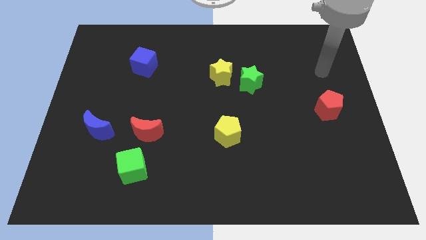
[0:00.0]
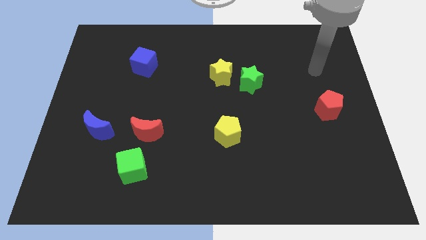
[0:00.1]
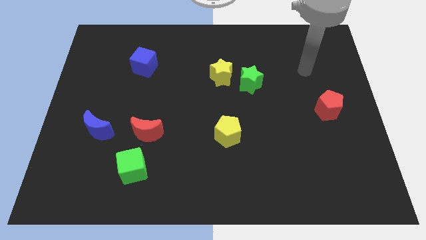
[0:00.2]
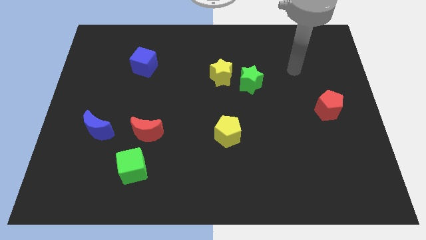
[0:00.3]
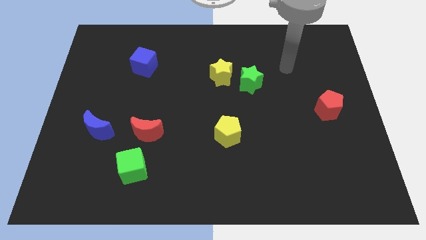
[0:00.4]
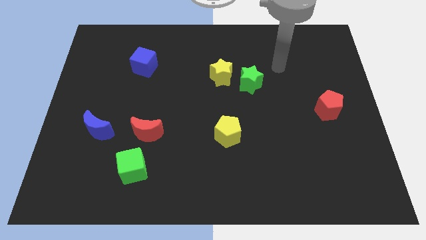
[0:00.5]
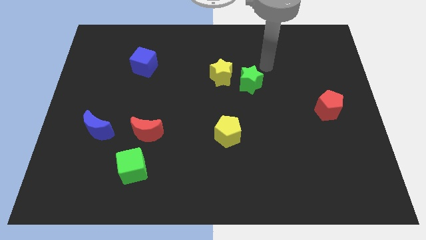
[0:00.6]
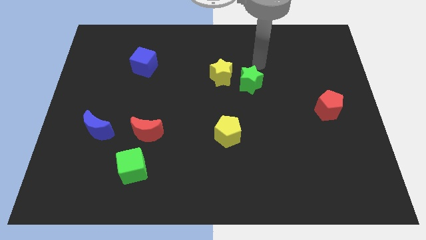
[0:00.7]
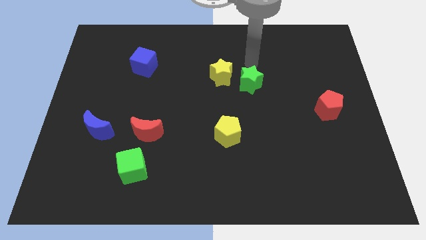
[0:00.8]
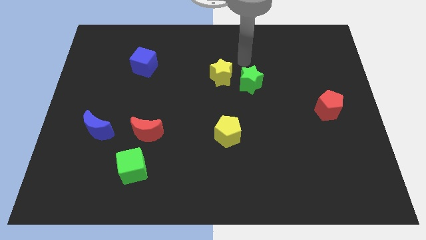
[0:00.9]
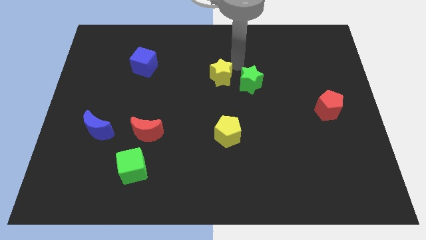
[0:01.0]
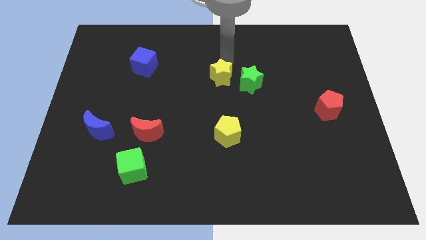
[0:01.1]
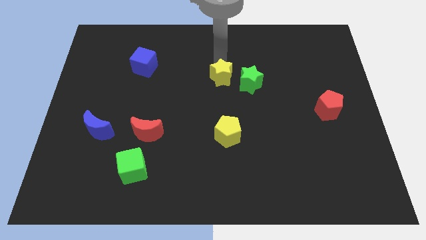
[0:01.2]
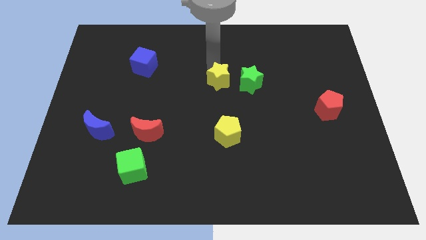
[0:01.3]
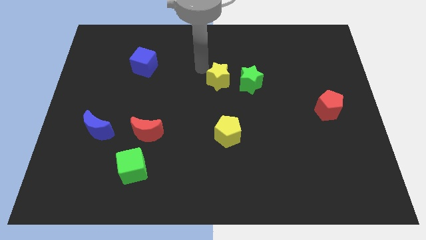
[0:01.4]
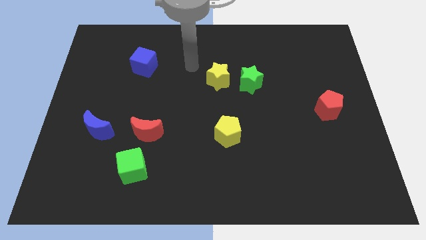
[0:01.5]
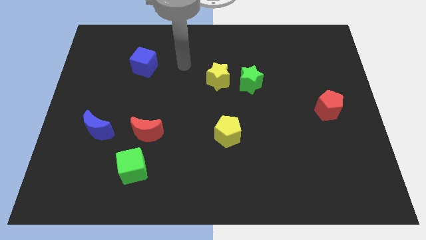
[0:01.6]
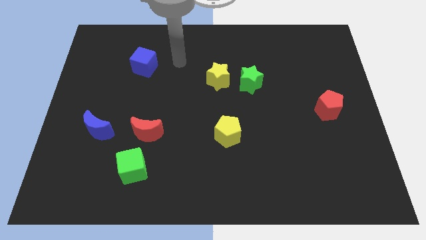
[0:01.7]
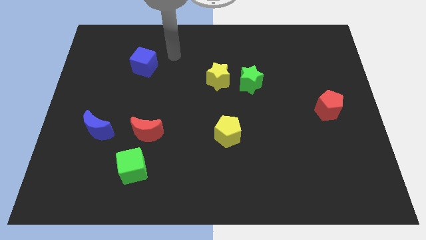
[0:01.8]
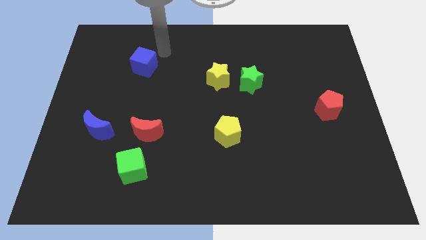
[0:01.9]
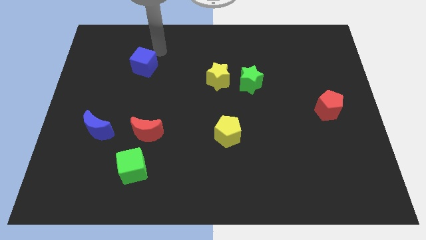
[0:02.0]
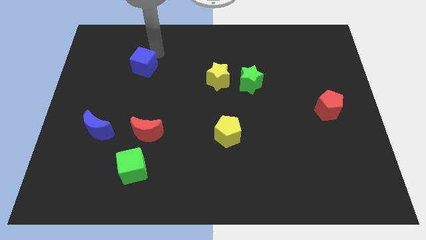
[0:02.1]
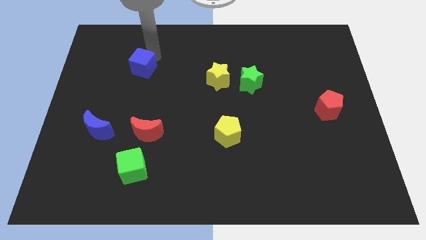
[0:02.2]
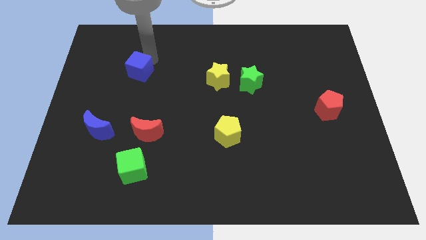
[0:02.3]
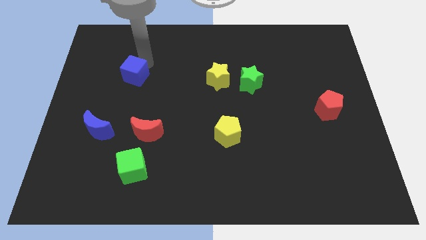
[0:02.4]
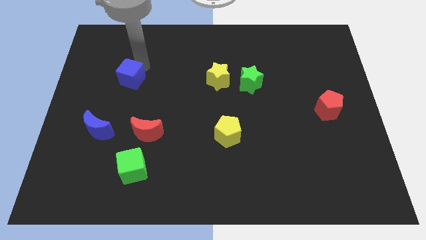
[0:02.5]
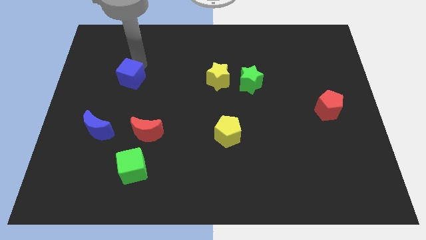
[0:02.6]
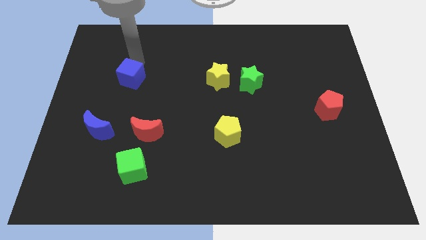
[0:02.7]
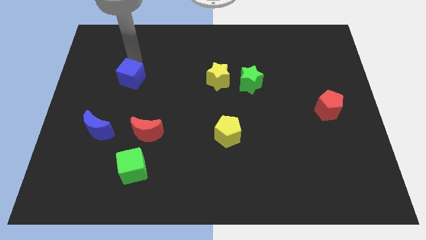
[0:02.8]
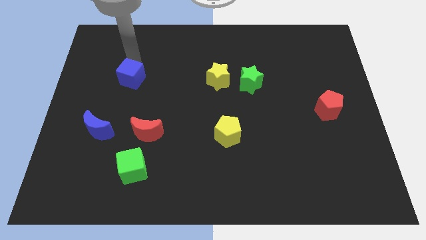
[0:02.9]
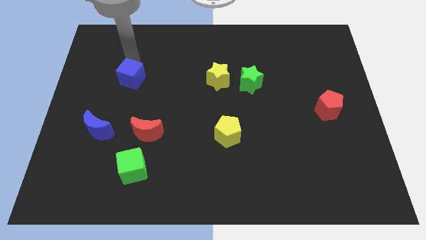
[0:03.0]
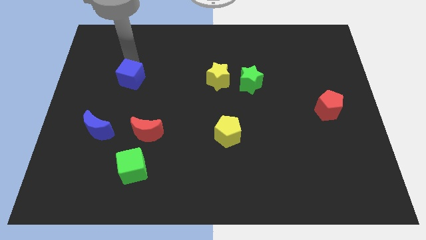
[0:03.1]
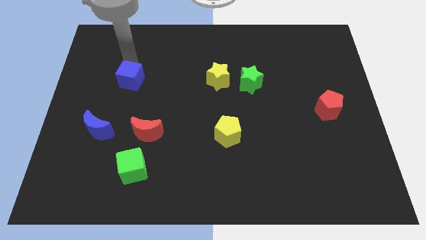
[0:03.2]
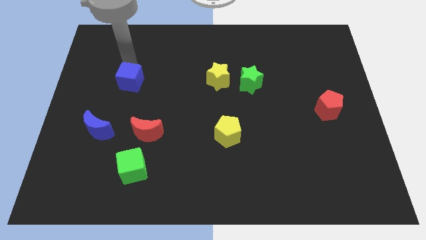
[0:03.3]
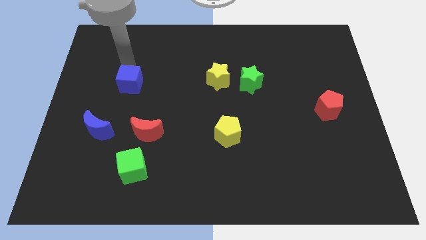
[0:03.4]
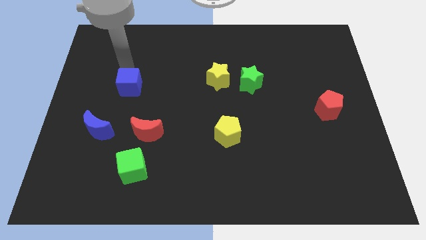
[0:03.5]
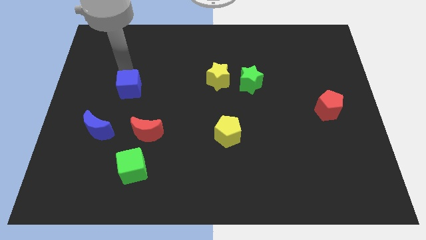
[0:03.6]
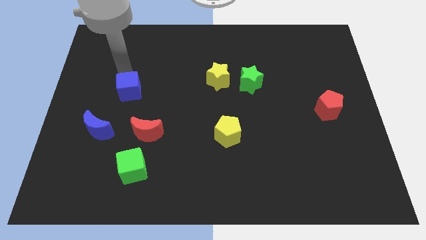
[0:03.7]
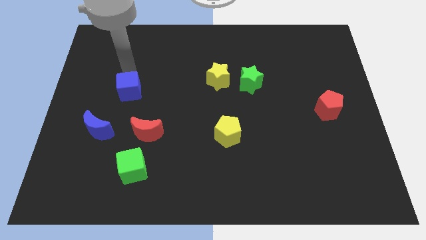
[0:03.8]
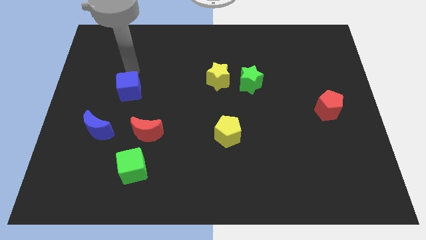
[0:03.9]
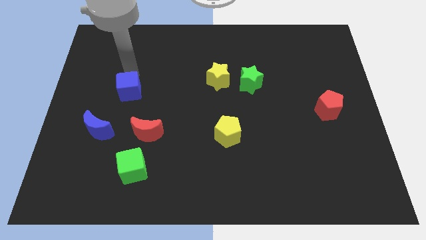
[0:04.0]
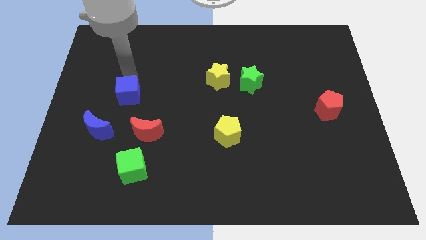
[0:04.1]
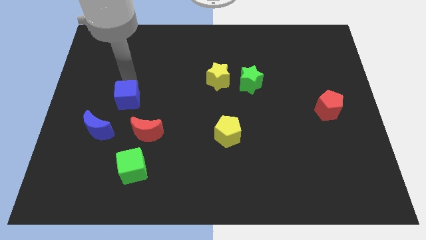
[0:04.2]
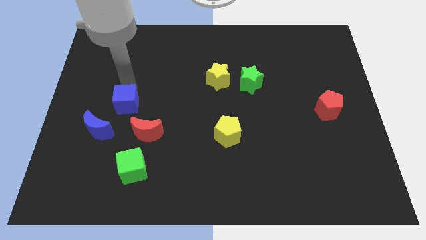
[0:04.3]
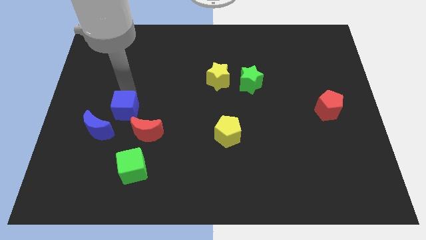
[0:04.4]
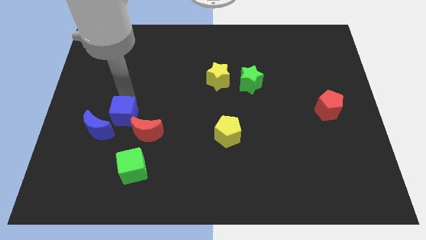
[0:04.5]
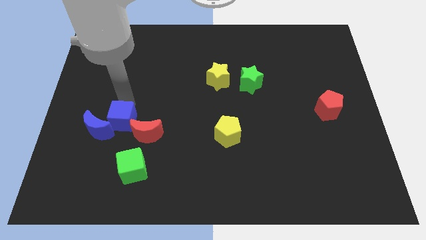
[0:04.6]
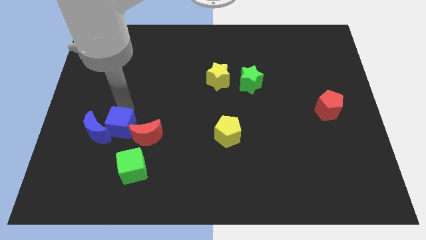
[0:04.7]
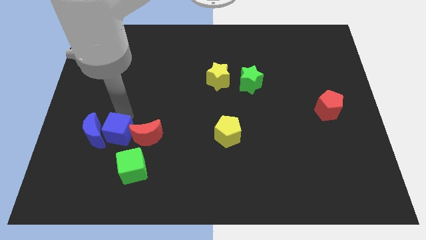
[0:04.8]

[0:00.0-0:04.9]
move the blue cube to the top left side of the green cube
